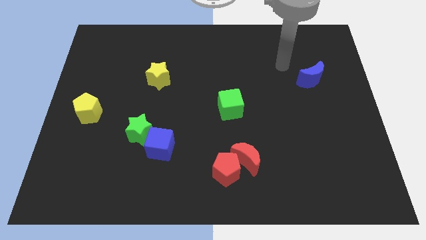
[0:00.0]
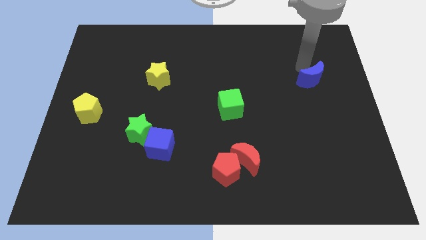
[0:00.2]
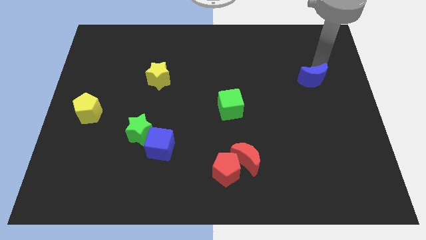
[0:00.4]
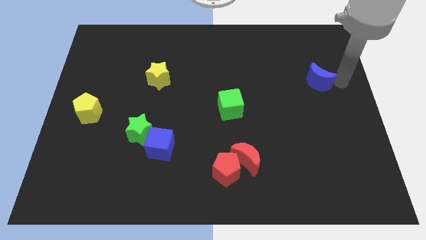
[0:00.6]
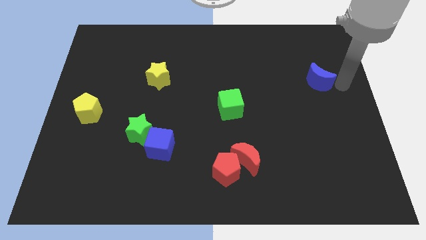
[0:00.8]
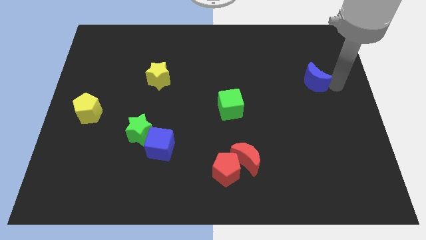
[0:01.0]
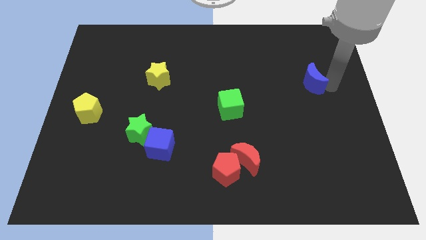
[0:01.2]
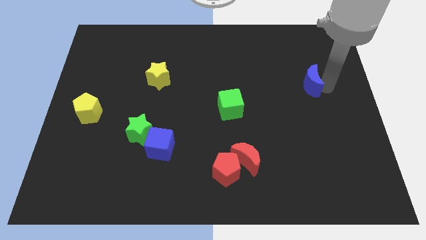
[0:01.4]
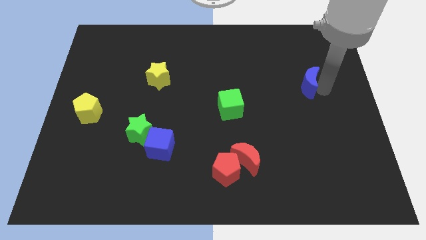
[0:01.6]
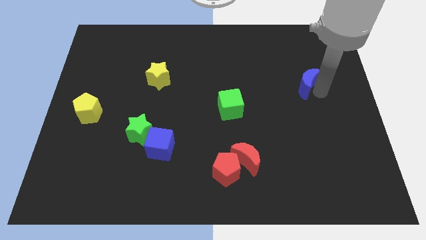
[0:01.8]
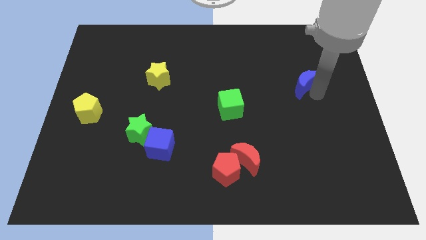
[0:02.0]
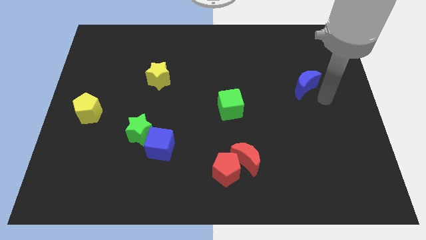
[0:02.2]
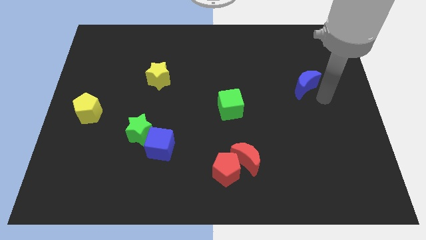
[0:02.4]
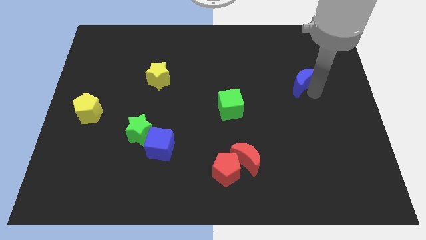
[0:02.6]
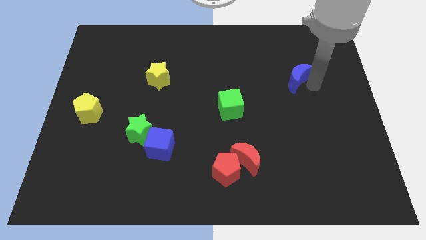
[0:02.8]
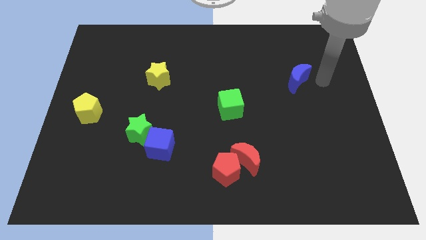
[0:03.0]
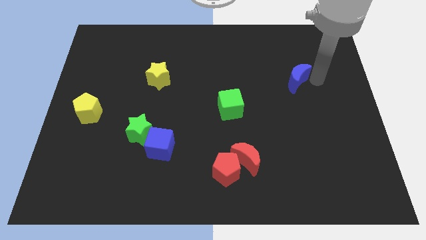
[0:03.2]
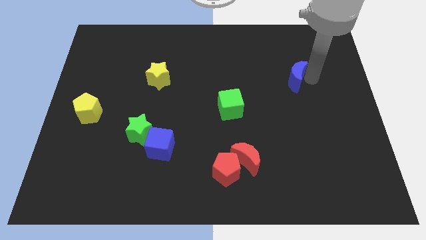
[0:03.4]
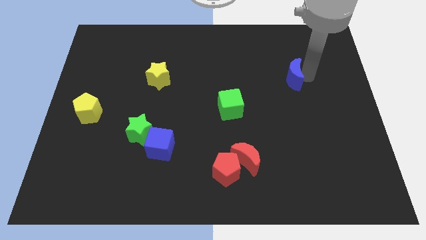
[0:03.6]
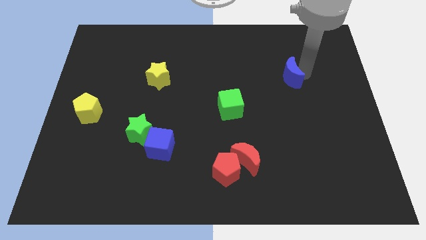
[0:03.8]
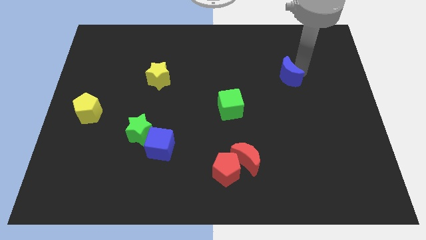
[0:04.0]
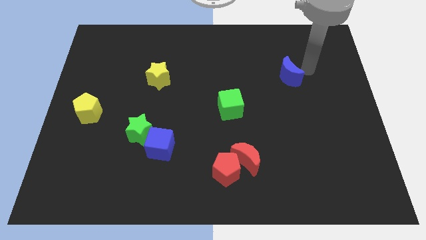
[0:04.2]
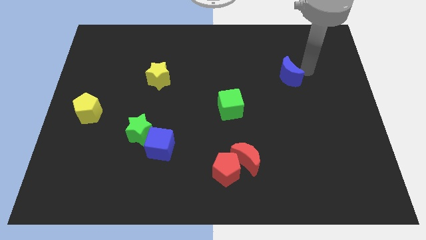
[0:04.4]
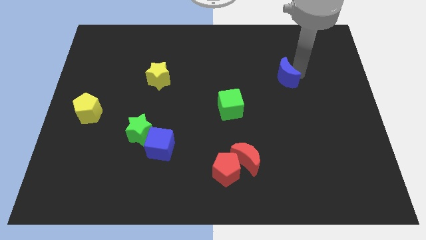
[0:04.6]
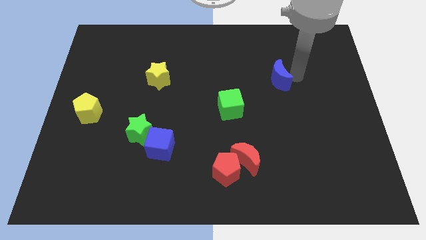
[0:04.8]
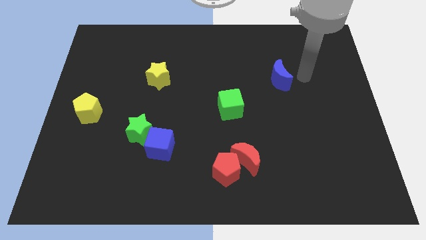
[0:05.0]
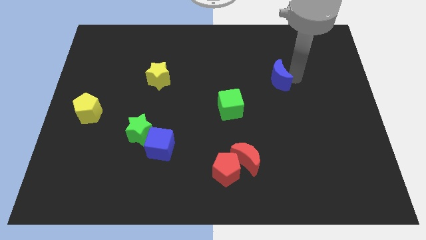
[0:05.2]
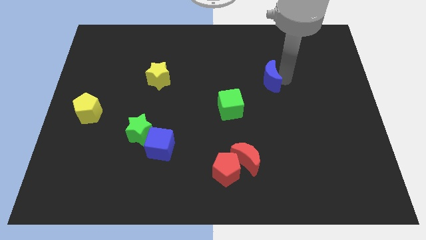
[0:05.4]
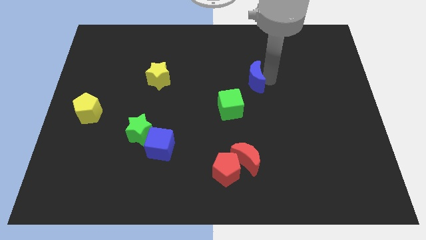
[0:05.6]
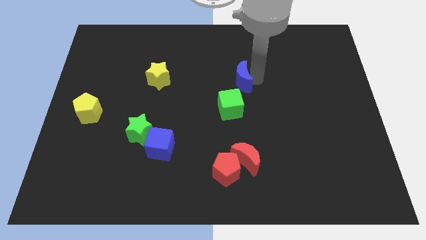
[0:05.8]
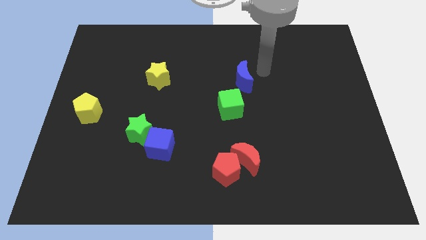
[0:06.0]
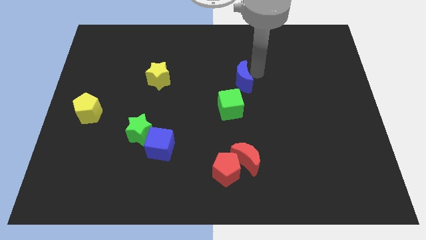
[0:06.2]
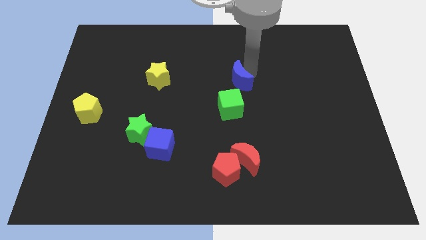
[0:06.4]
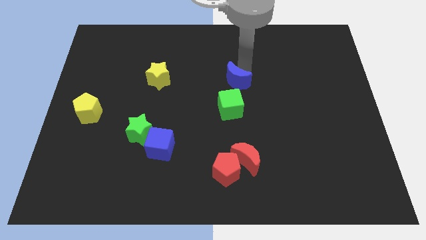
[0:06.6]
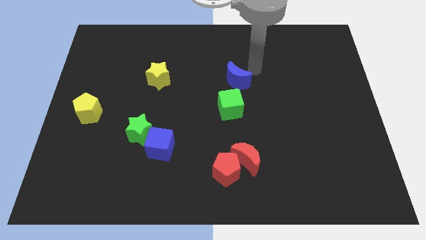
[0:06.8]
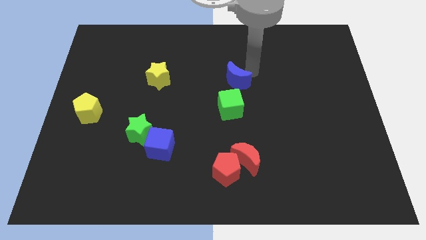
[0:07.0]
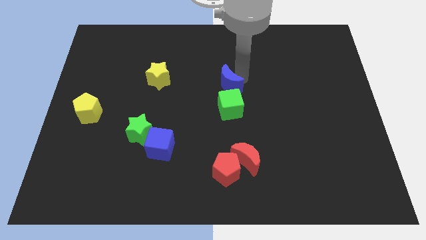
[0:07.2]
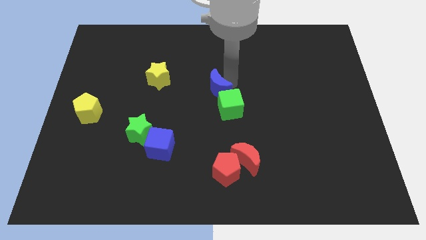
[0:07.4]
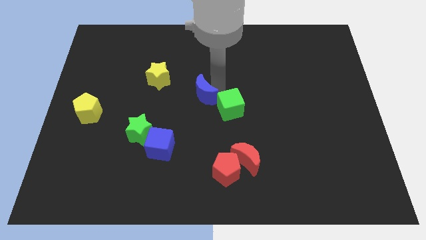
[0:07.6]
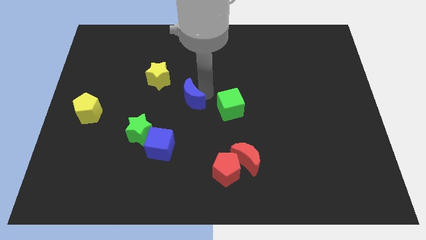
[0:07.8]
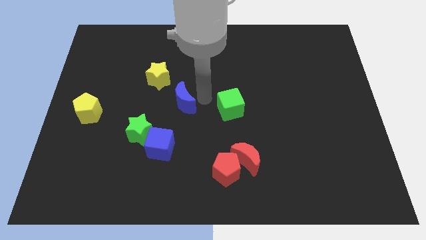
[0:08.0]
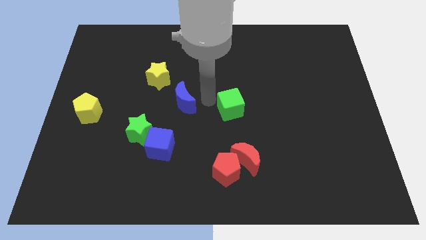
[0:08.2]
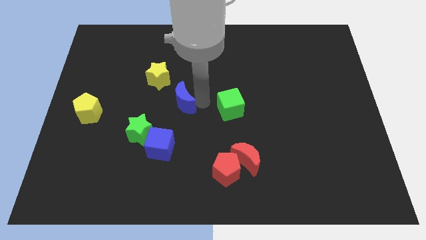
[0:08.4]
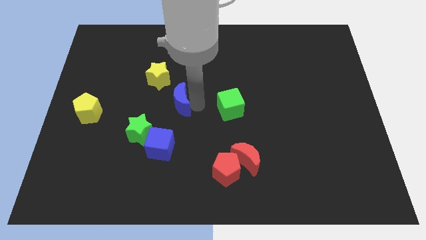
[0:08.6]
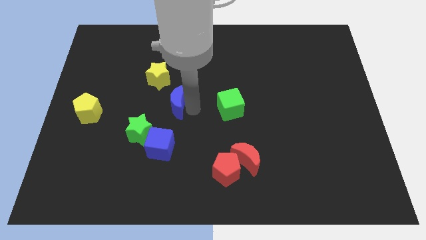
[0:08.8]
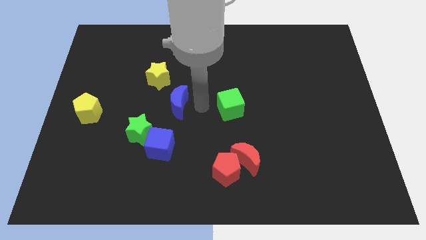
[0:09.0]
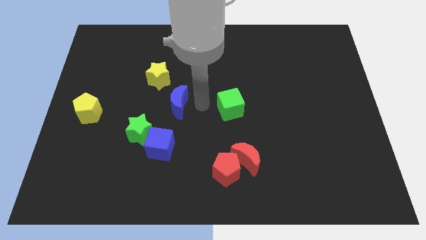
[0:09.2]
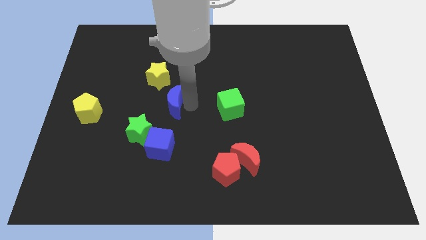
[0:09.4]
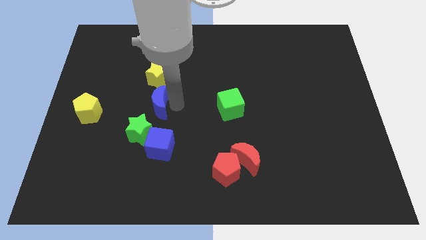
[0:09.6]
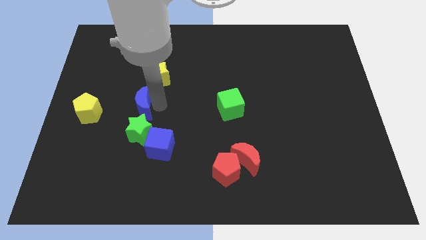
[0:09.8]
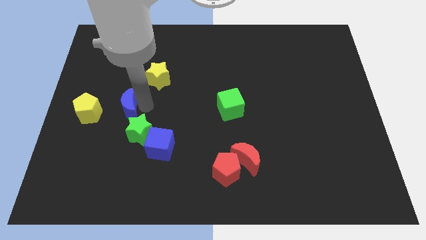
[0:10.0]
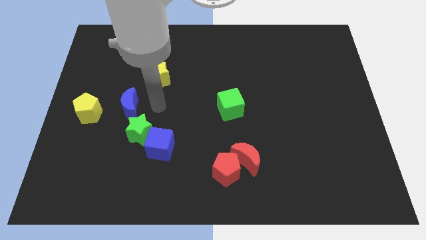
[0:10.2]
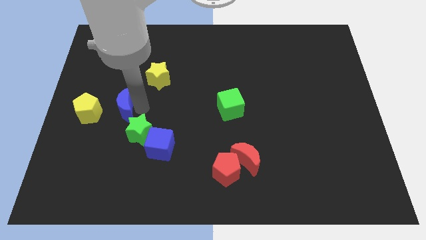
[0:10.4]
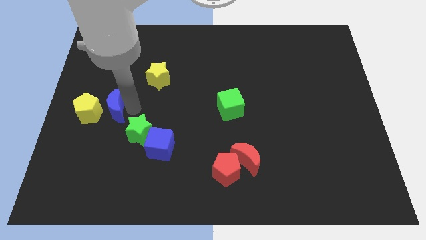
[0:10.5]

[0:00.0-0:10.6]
put the blue moon next to the yellow pentagon

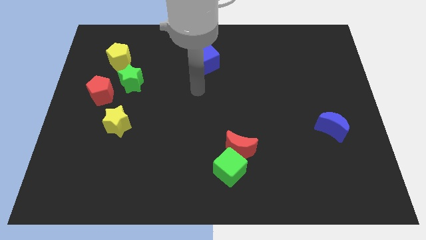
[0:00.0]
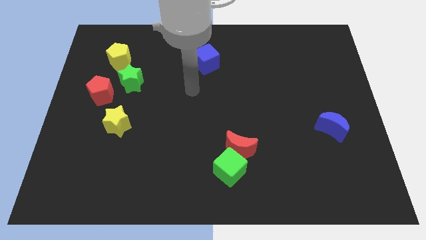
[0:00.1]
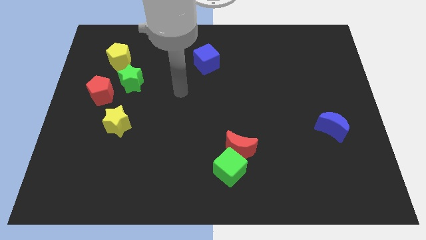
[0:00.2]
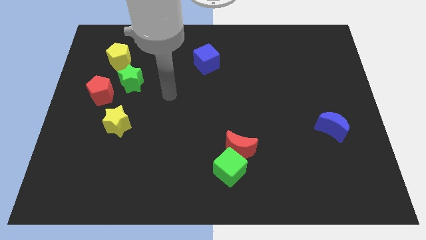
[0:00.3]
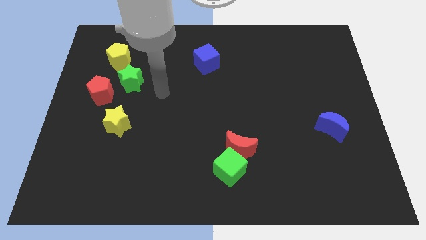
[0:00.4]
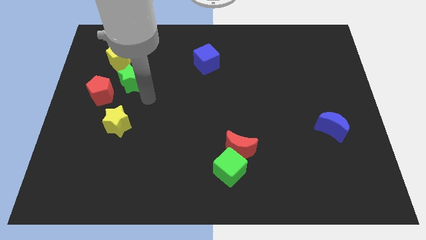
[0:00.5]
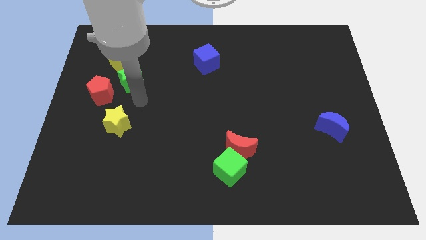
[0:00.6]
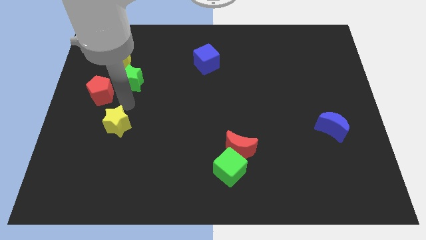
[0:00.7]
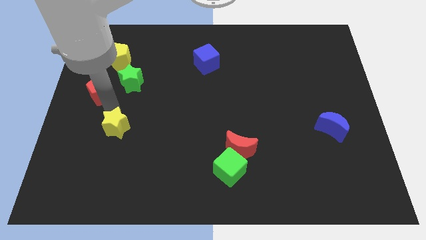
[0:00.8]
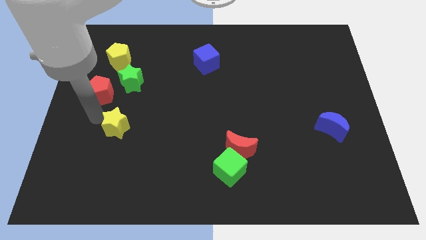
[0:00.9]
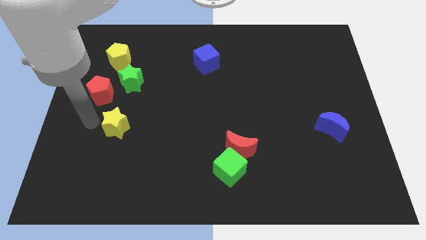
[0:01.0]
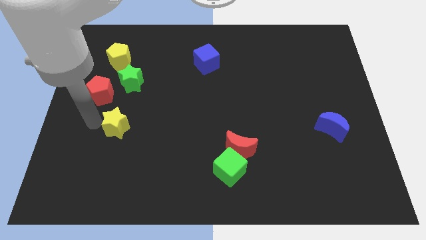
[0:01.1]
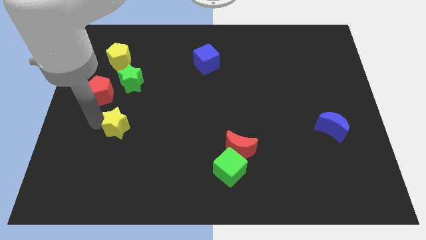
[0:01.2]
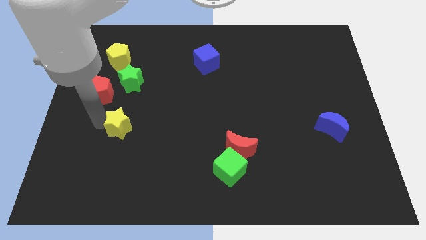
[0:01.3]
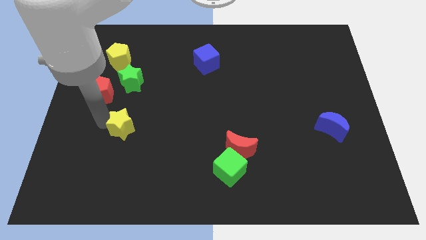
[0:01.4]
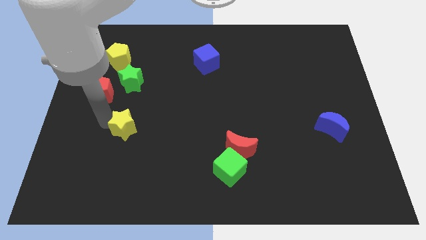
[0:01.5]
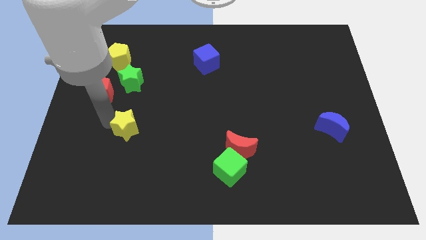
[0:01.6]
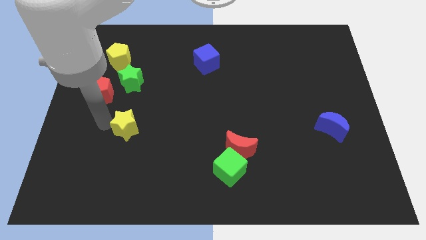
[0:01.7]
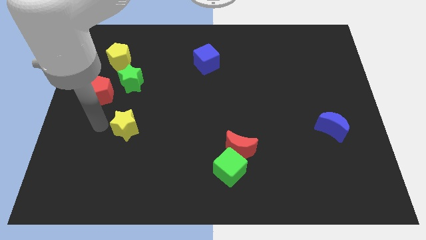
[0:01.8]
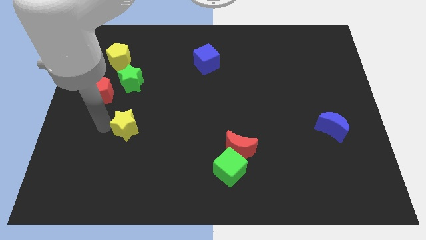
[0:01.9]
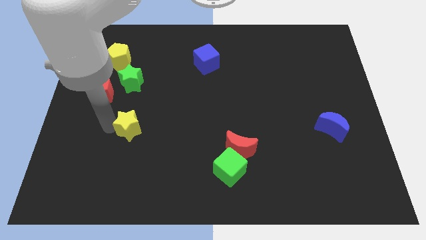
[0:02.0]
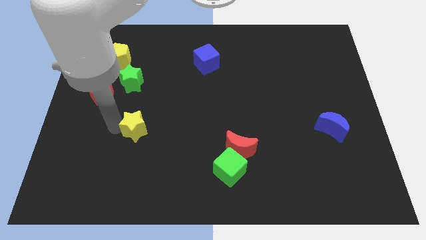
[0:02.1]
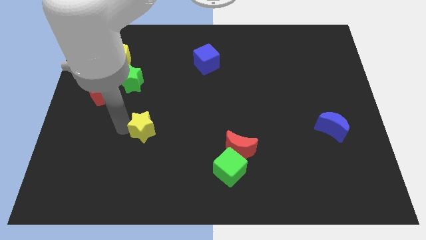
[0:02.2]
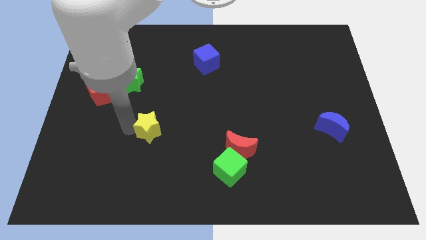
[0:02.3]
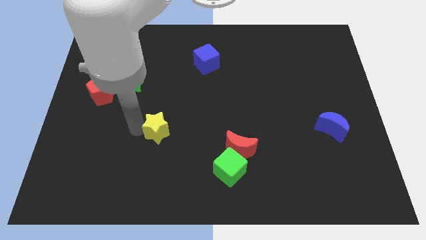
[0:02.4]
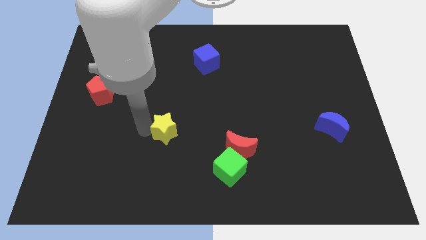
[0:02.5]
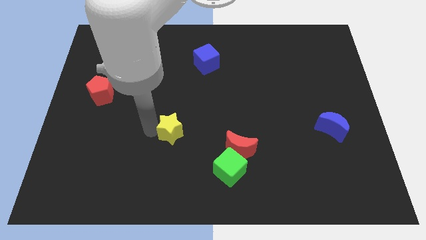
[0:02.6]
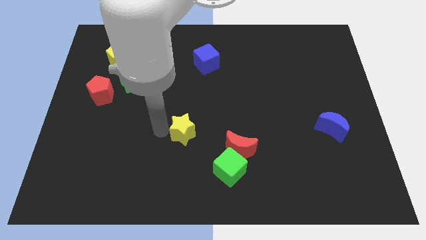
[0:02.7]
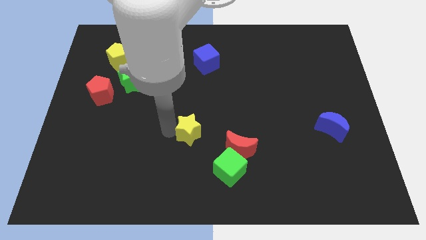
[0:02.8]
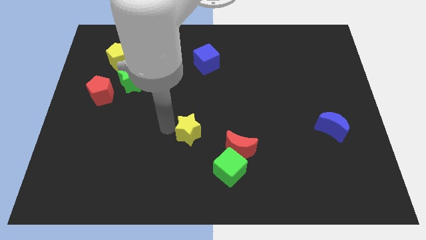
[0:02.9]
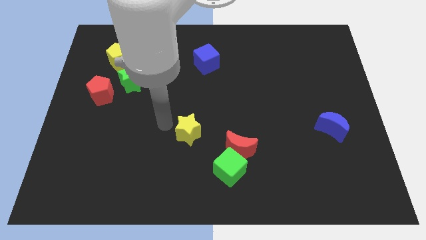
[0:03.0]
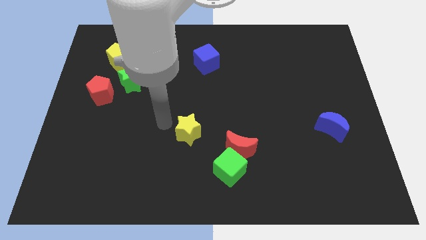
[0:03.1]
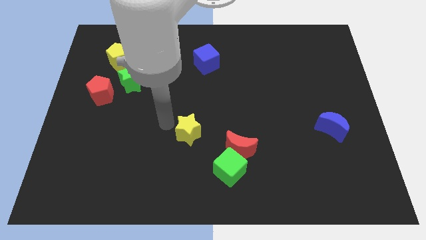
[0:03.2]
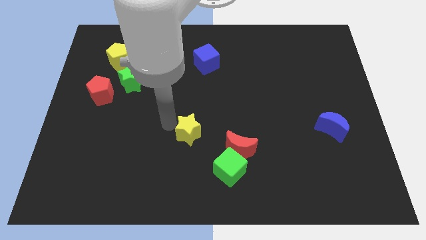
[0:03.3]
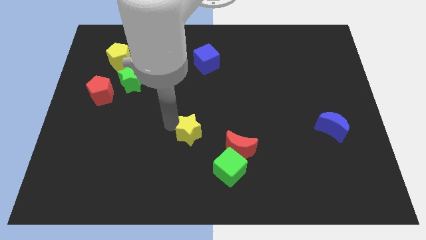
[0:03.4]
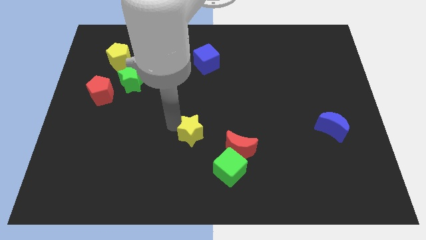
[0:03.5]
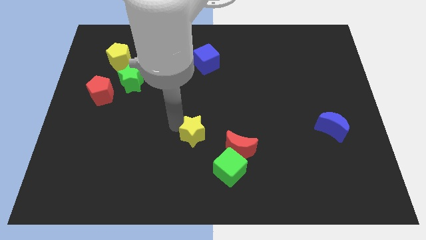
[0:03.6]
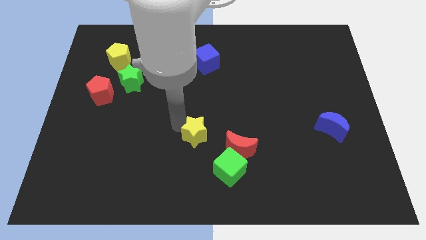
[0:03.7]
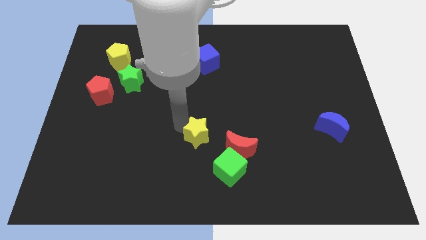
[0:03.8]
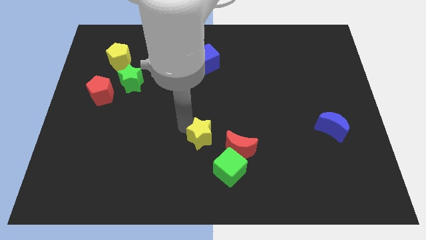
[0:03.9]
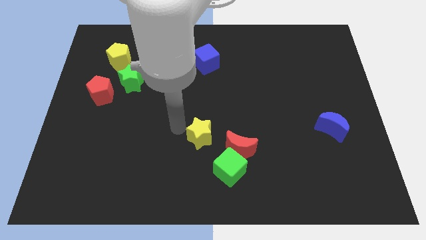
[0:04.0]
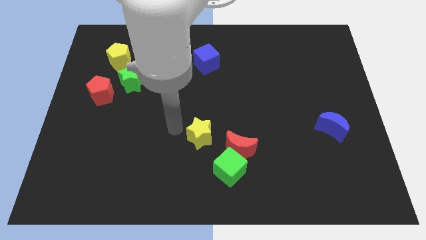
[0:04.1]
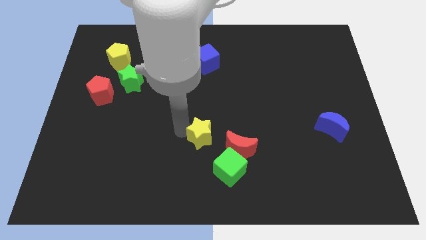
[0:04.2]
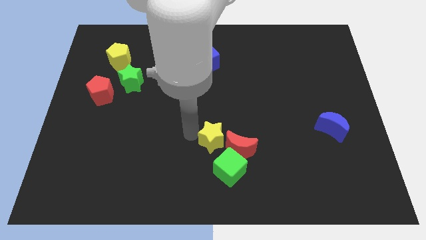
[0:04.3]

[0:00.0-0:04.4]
put the yellow star next to the red moon
